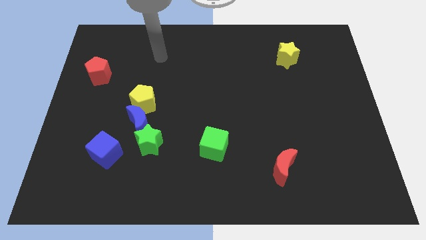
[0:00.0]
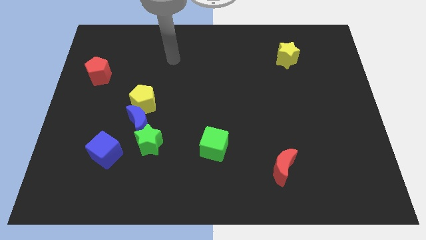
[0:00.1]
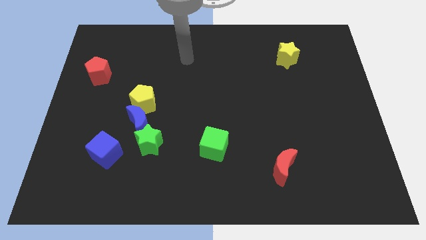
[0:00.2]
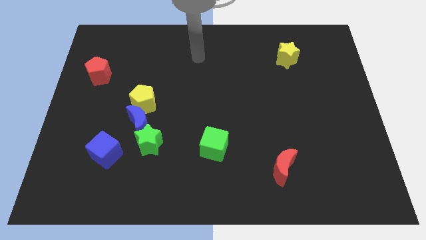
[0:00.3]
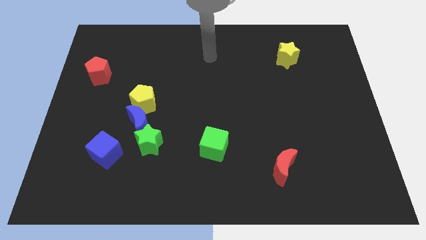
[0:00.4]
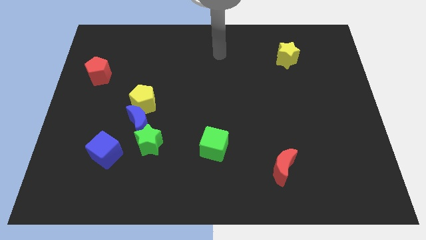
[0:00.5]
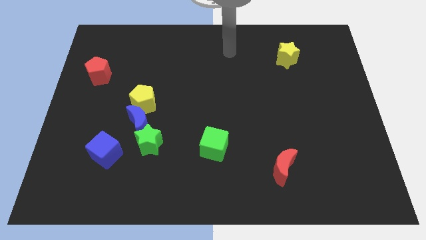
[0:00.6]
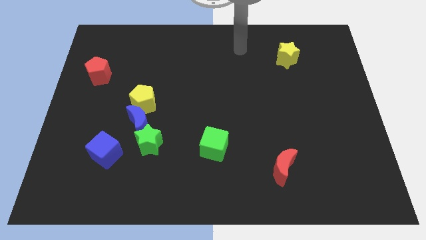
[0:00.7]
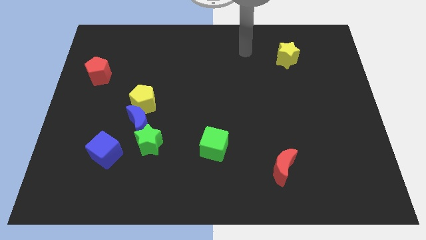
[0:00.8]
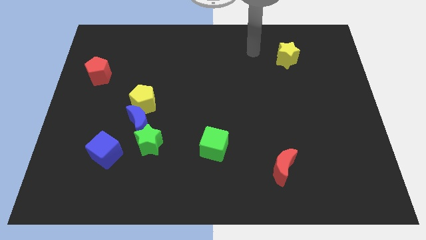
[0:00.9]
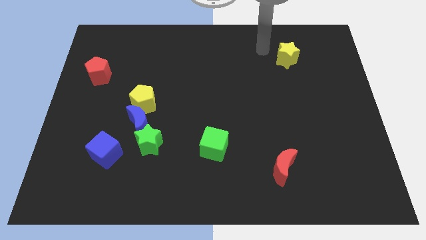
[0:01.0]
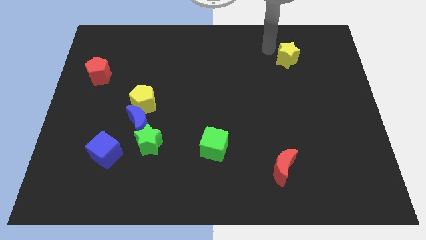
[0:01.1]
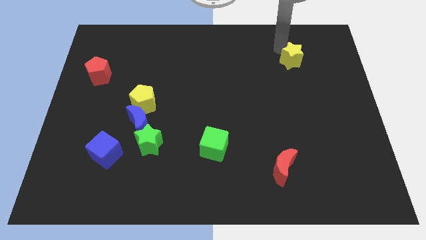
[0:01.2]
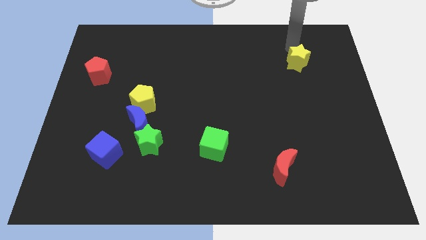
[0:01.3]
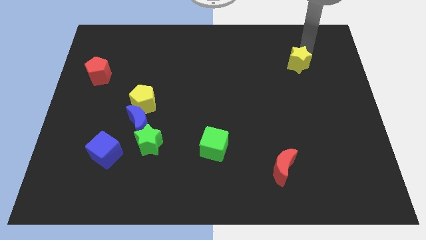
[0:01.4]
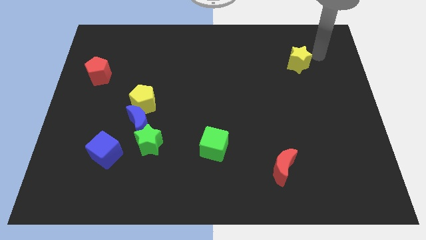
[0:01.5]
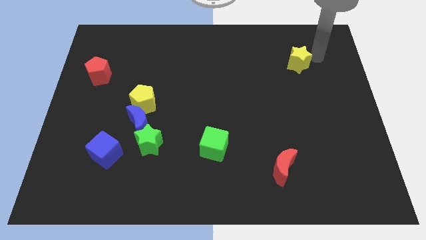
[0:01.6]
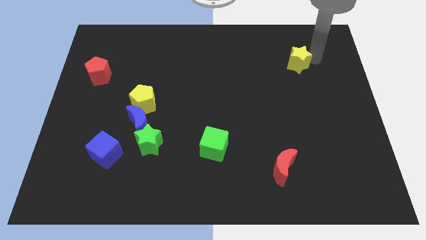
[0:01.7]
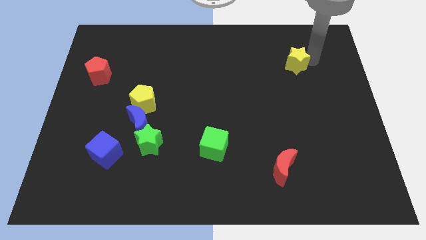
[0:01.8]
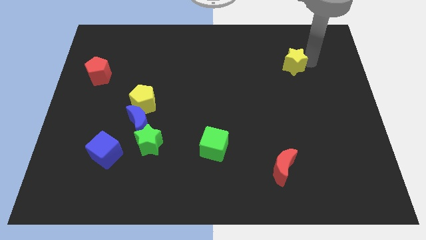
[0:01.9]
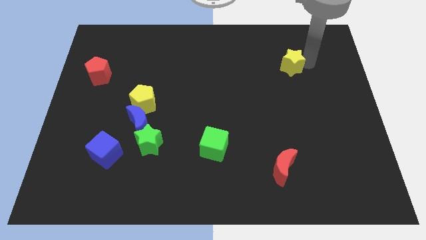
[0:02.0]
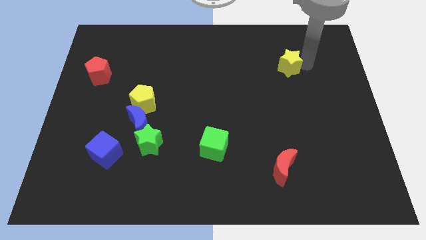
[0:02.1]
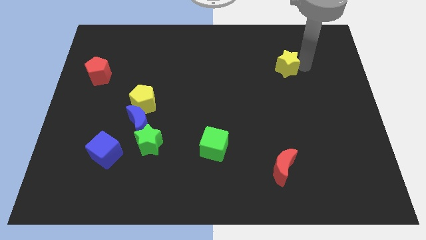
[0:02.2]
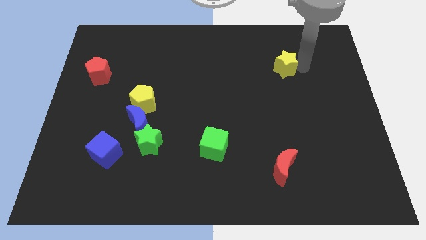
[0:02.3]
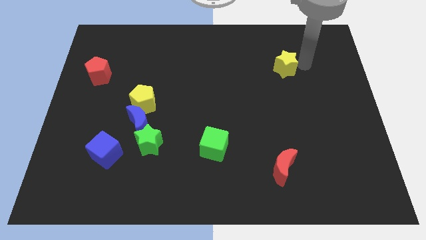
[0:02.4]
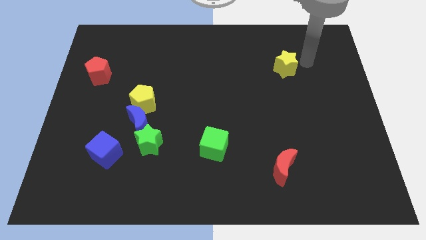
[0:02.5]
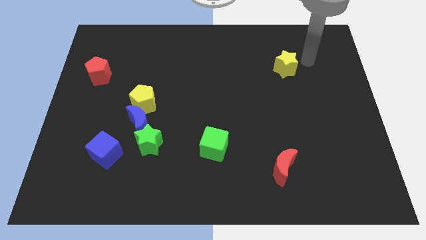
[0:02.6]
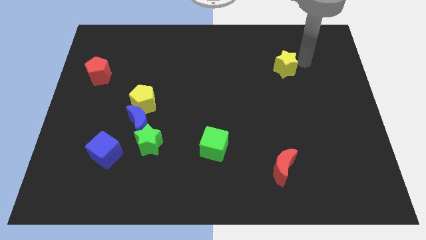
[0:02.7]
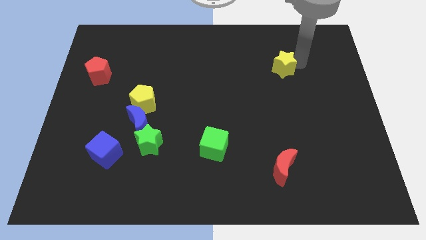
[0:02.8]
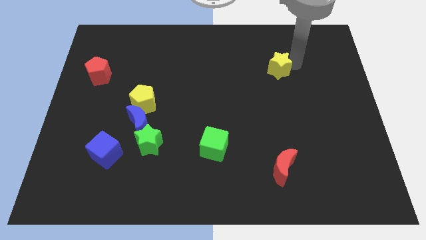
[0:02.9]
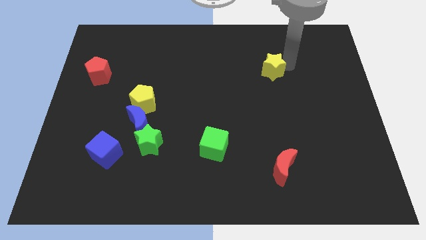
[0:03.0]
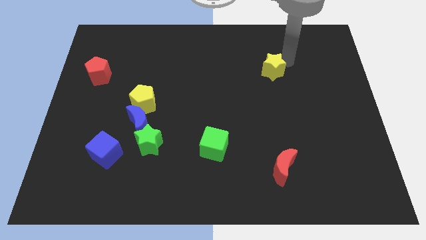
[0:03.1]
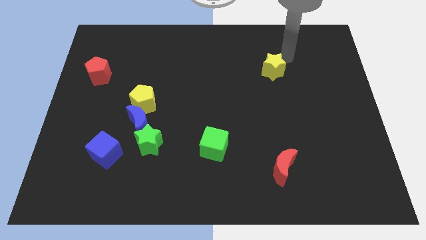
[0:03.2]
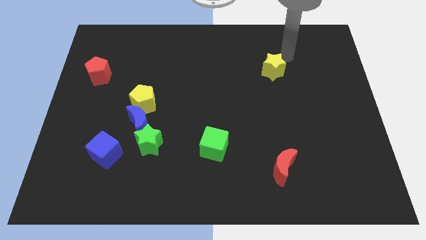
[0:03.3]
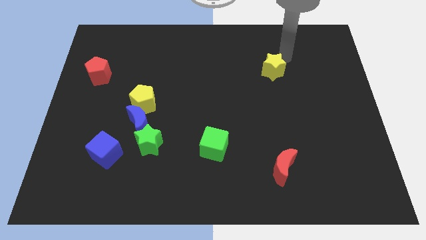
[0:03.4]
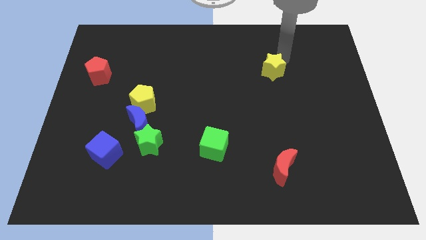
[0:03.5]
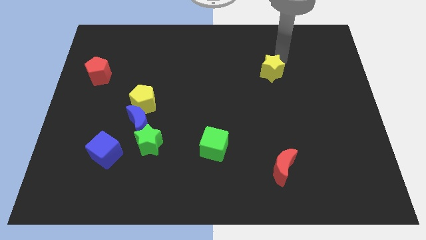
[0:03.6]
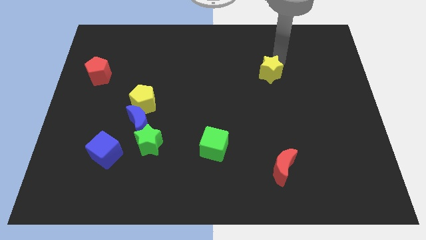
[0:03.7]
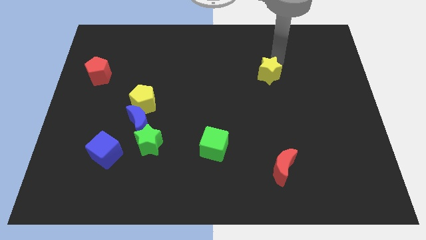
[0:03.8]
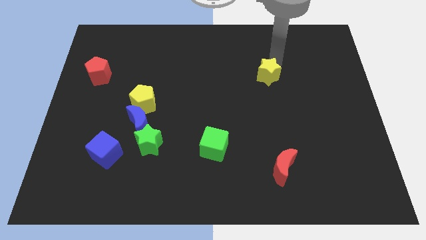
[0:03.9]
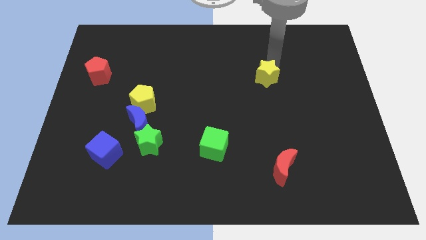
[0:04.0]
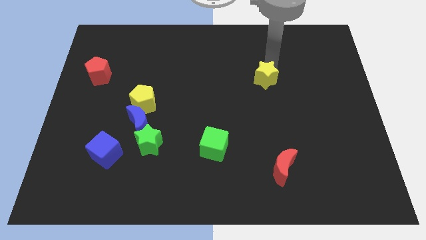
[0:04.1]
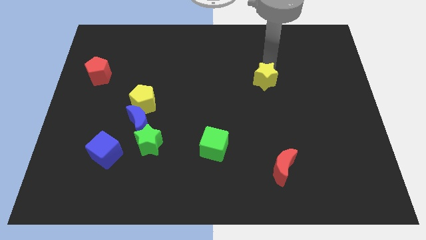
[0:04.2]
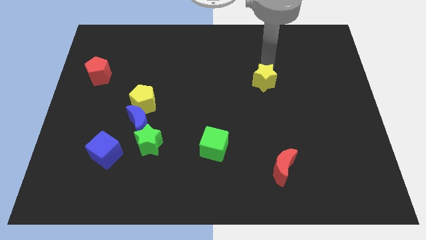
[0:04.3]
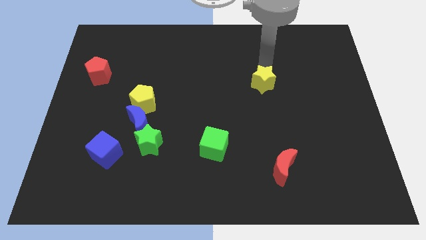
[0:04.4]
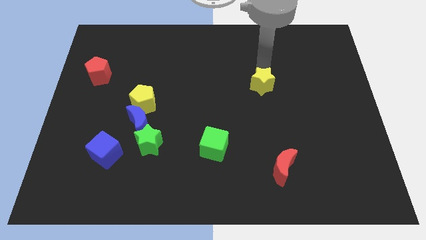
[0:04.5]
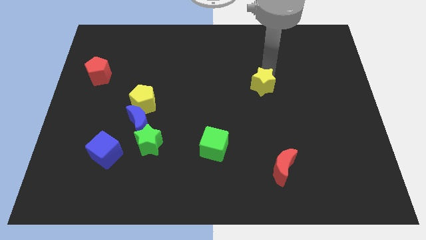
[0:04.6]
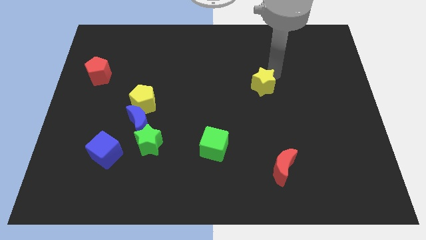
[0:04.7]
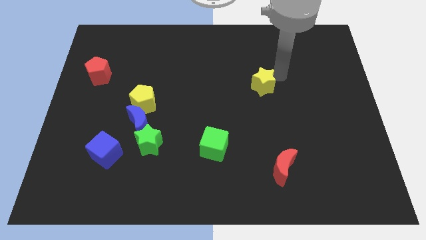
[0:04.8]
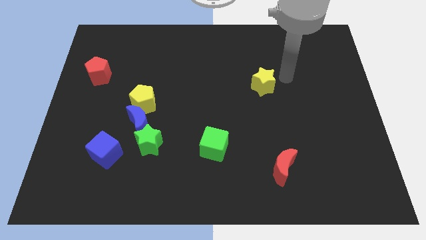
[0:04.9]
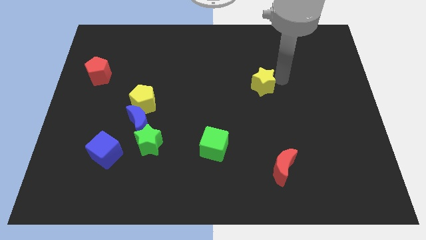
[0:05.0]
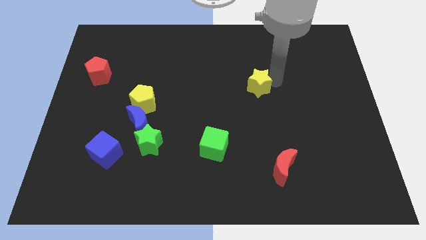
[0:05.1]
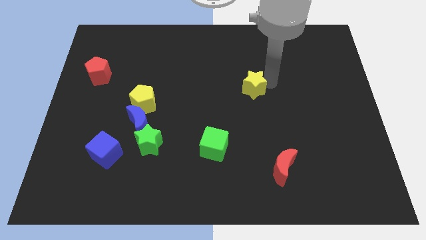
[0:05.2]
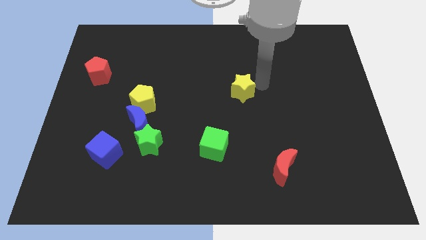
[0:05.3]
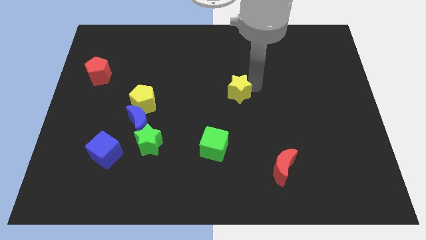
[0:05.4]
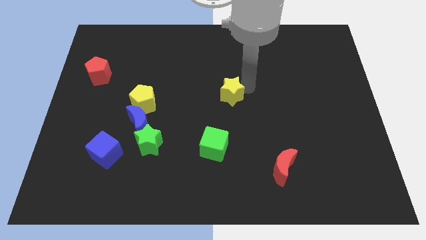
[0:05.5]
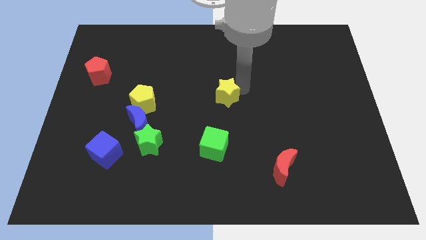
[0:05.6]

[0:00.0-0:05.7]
push the yellow star down and then to the left

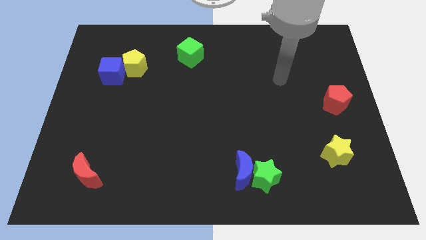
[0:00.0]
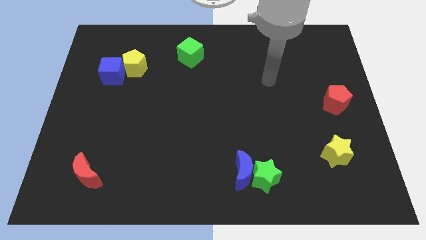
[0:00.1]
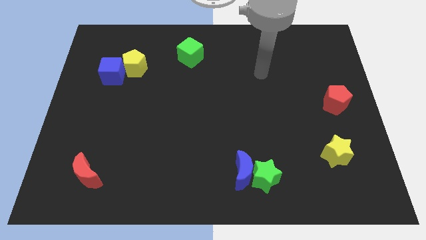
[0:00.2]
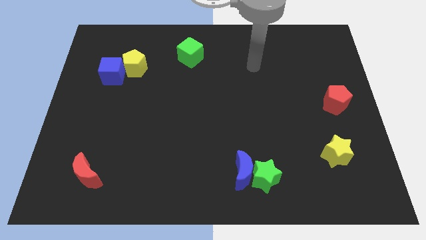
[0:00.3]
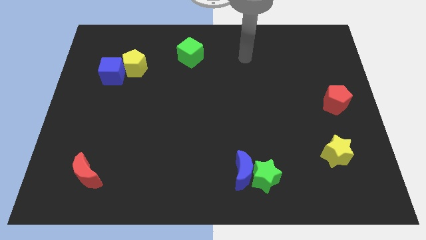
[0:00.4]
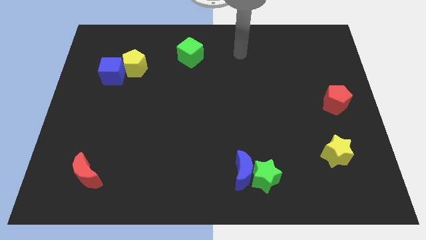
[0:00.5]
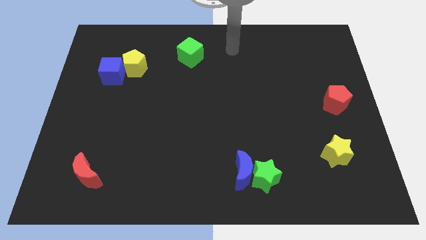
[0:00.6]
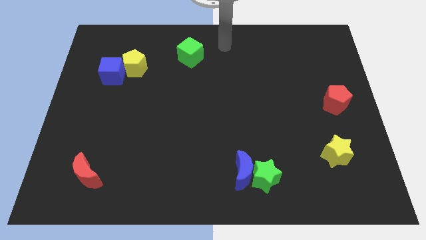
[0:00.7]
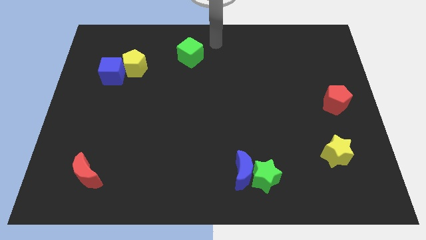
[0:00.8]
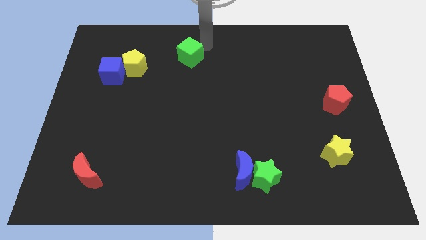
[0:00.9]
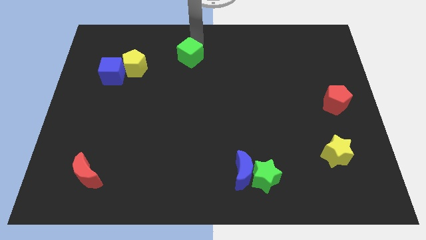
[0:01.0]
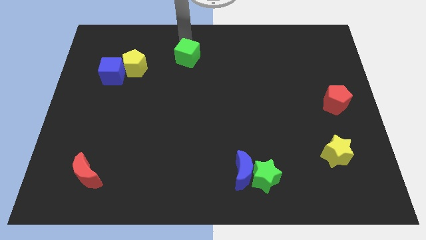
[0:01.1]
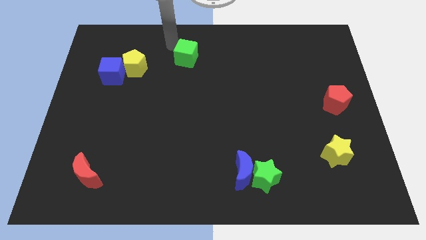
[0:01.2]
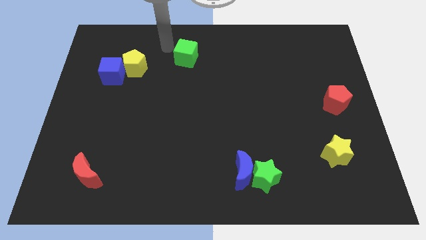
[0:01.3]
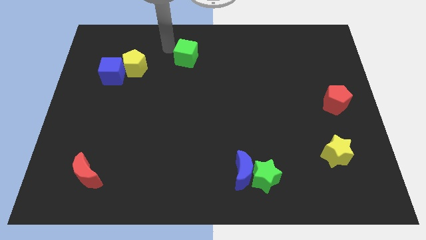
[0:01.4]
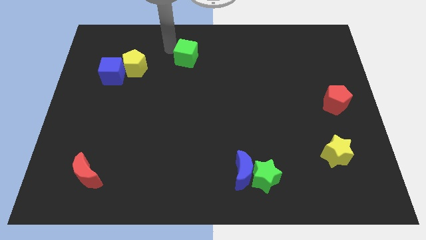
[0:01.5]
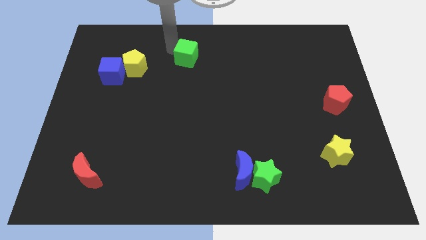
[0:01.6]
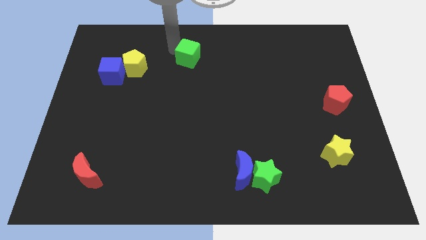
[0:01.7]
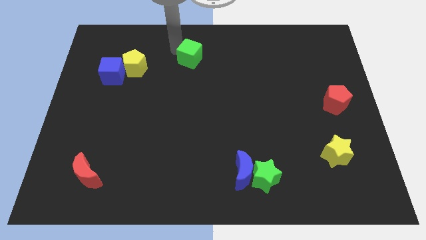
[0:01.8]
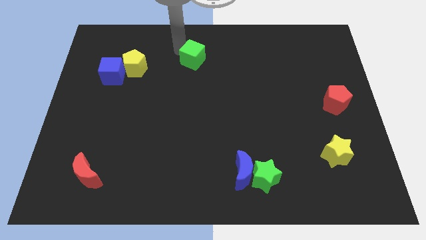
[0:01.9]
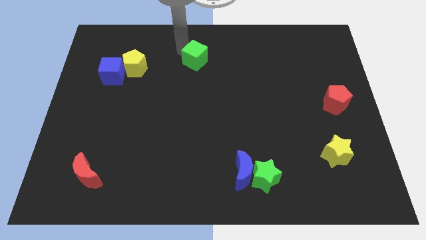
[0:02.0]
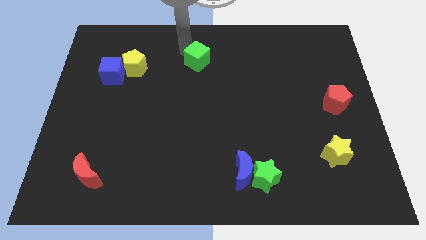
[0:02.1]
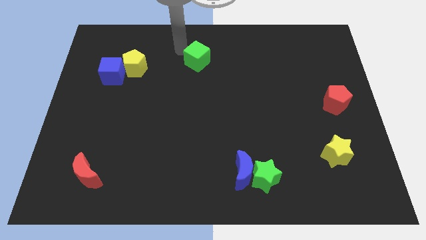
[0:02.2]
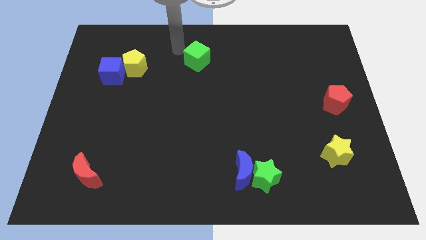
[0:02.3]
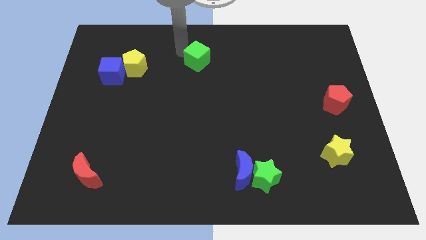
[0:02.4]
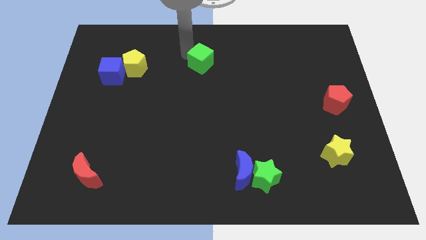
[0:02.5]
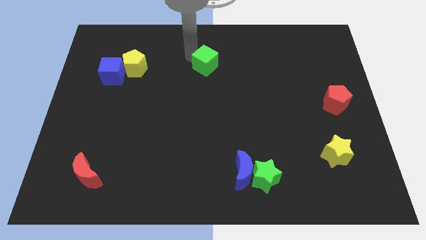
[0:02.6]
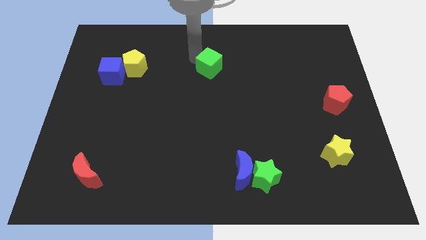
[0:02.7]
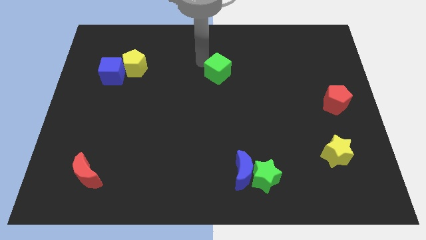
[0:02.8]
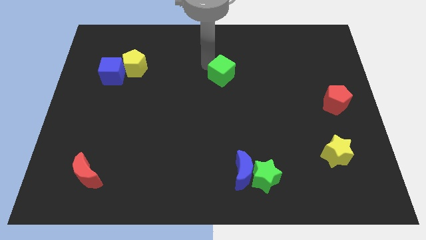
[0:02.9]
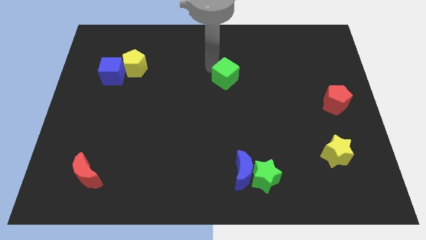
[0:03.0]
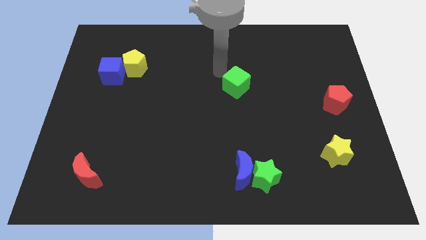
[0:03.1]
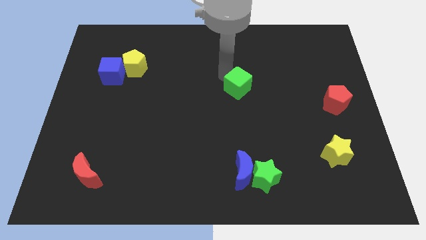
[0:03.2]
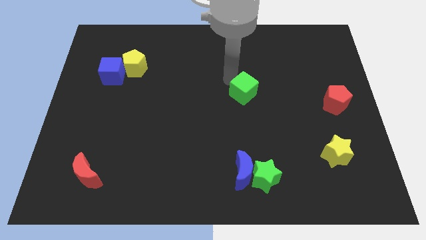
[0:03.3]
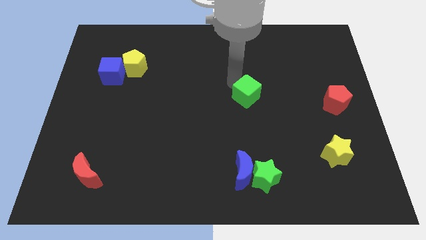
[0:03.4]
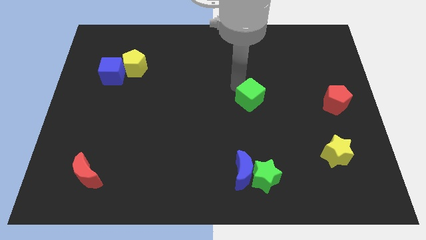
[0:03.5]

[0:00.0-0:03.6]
move the green cube downwards and then right
